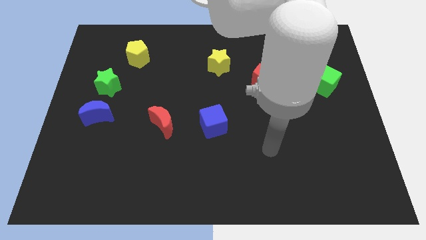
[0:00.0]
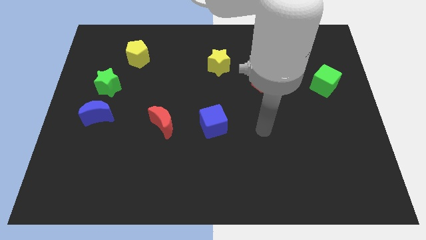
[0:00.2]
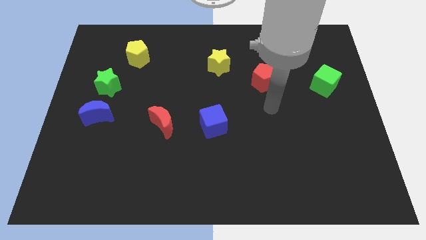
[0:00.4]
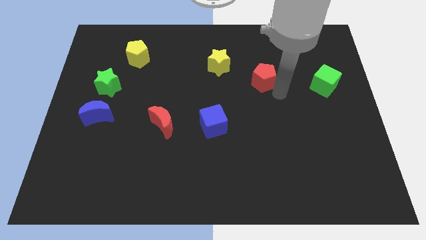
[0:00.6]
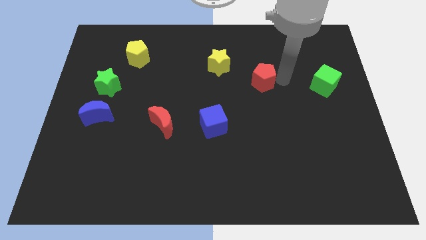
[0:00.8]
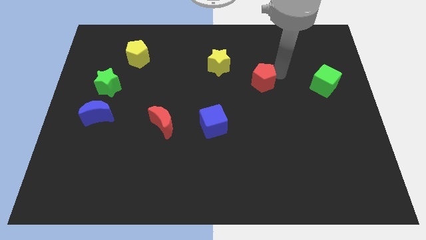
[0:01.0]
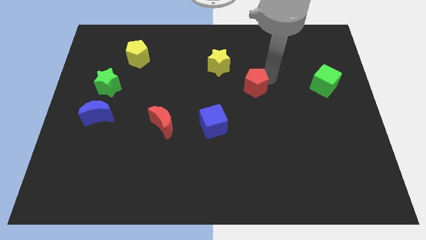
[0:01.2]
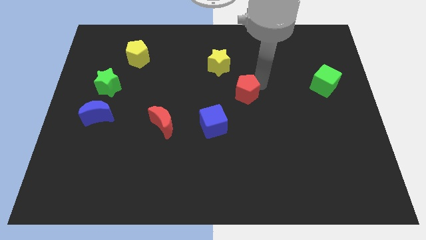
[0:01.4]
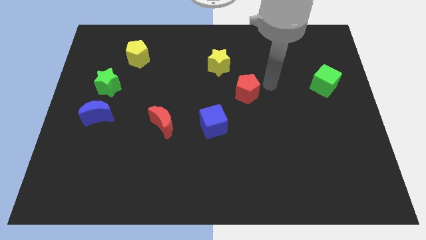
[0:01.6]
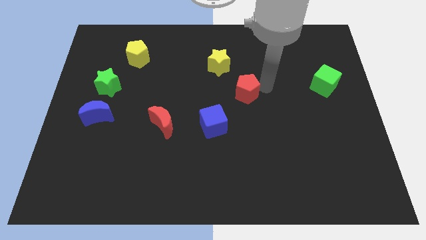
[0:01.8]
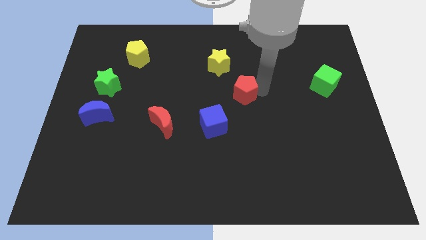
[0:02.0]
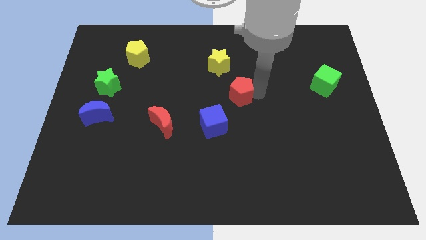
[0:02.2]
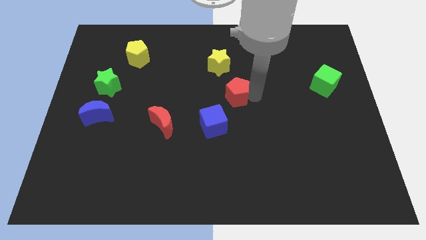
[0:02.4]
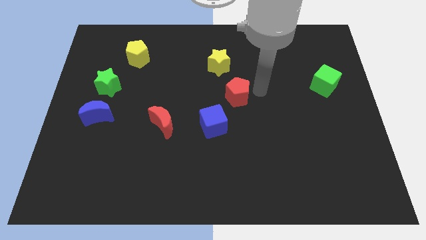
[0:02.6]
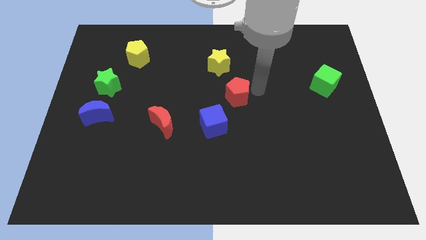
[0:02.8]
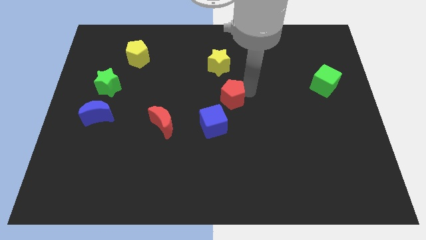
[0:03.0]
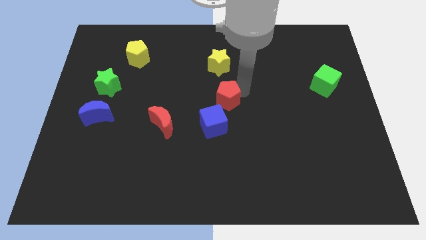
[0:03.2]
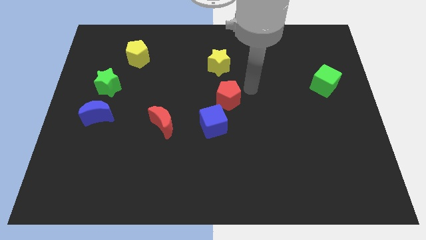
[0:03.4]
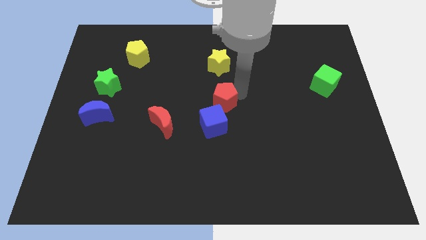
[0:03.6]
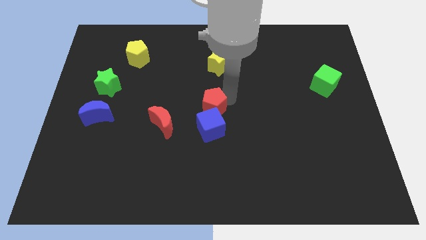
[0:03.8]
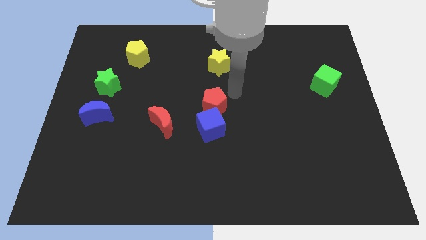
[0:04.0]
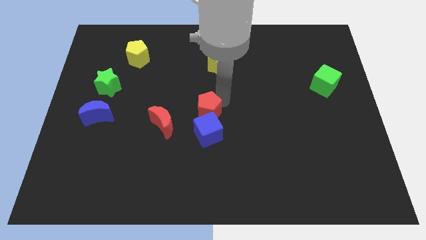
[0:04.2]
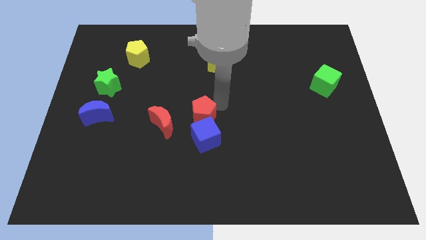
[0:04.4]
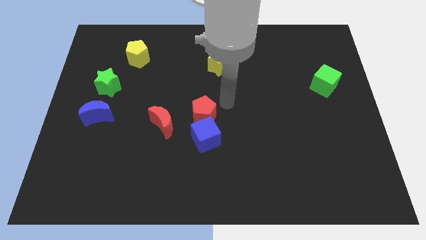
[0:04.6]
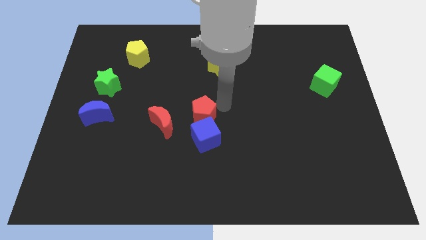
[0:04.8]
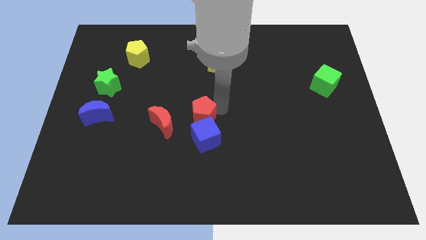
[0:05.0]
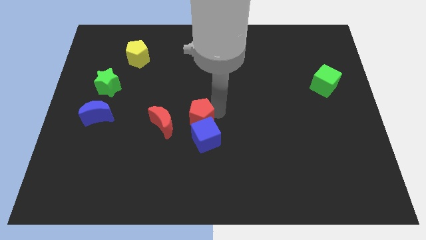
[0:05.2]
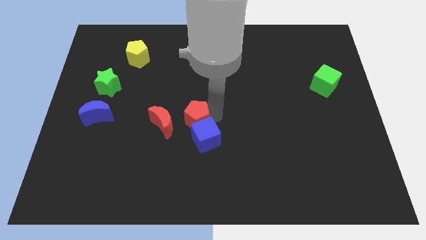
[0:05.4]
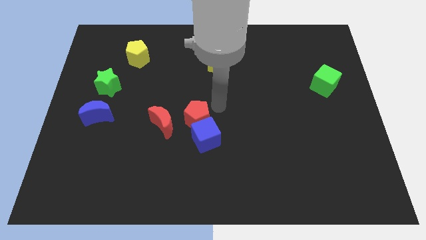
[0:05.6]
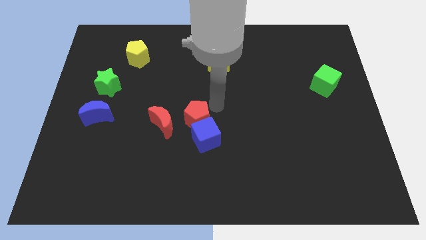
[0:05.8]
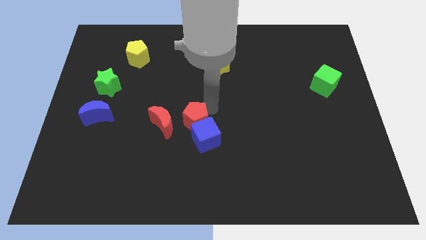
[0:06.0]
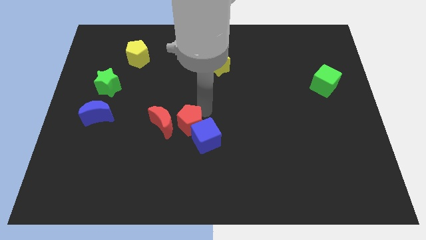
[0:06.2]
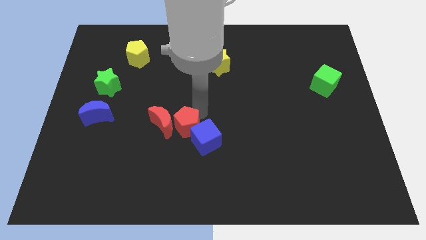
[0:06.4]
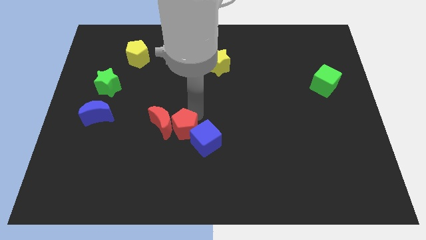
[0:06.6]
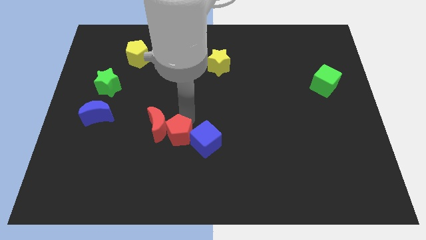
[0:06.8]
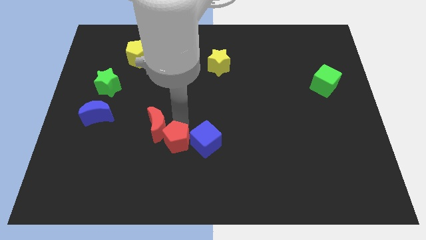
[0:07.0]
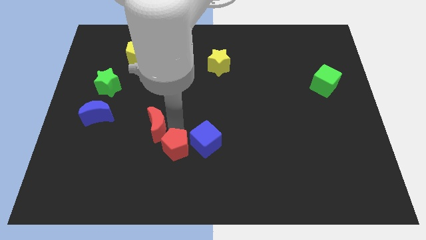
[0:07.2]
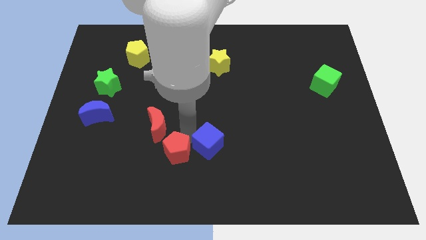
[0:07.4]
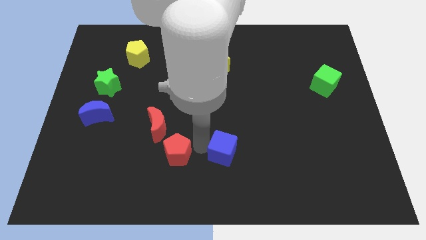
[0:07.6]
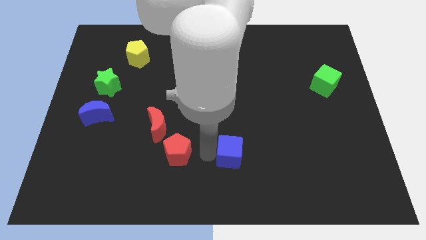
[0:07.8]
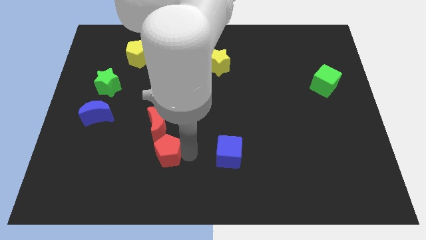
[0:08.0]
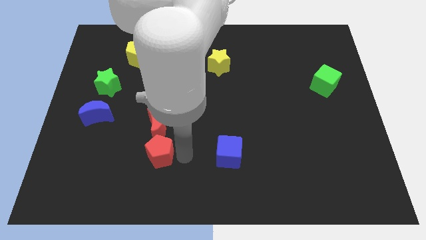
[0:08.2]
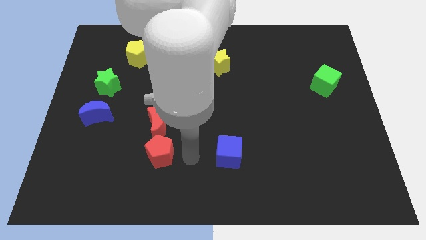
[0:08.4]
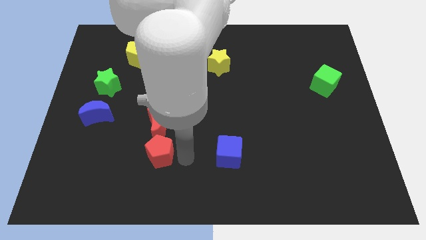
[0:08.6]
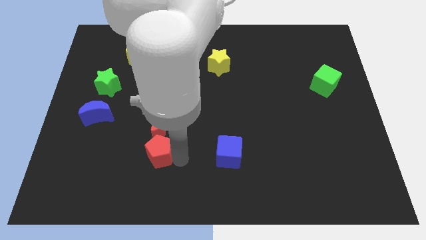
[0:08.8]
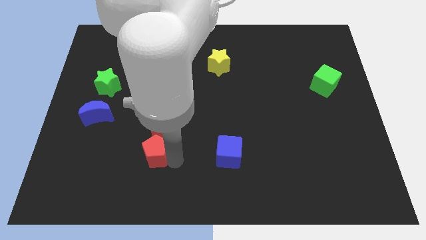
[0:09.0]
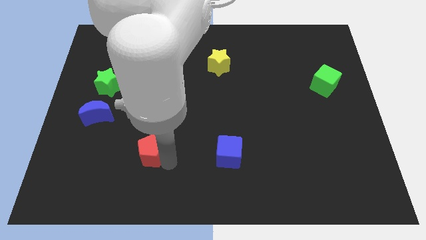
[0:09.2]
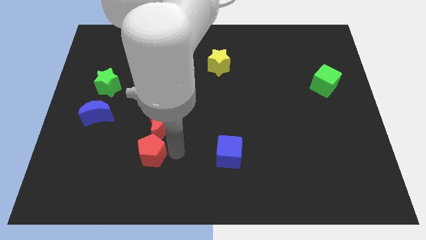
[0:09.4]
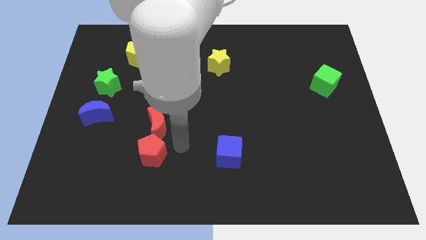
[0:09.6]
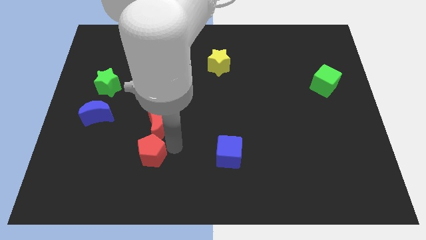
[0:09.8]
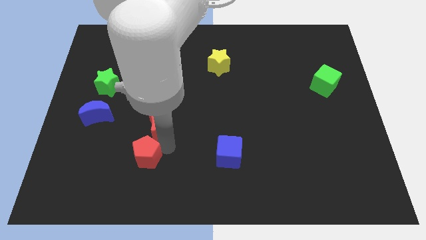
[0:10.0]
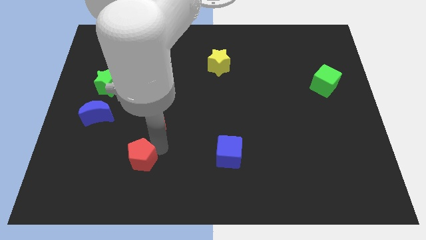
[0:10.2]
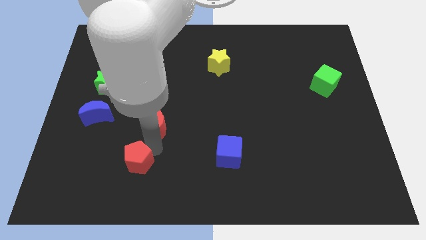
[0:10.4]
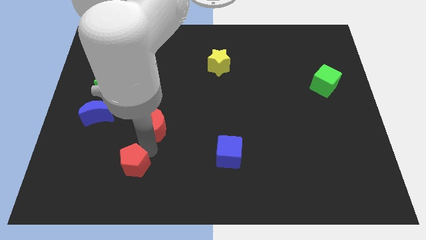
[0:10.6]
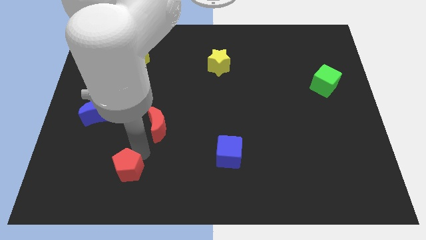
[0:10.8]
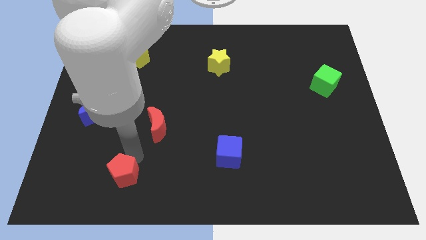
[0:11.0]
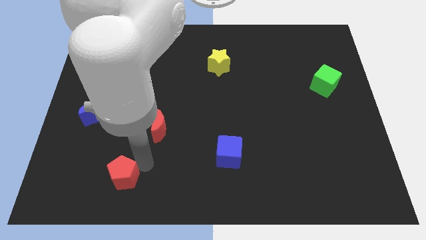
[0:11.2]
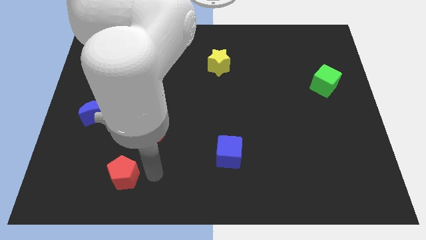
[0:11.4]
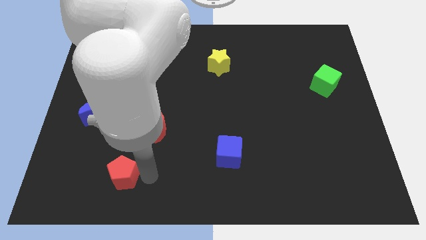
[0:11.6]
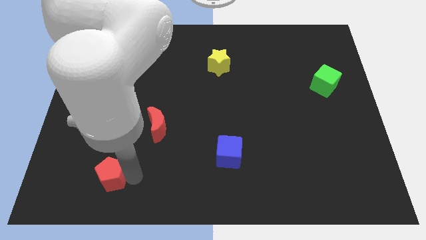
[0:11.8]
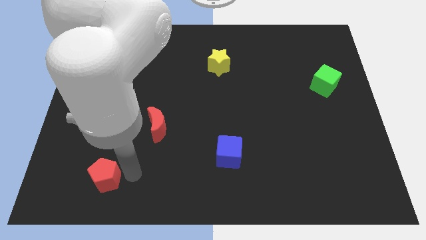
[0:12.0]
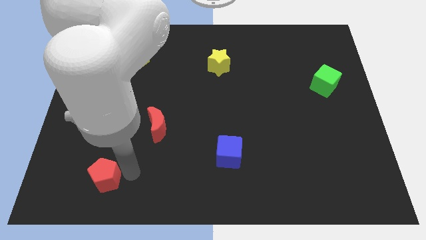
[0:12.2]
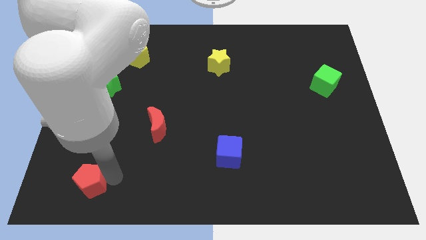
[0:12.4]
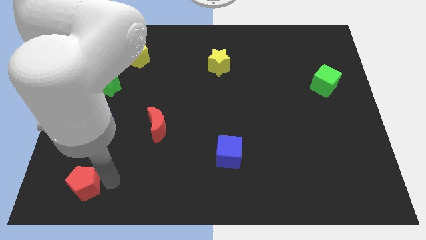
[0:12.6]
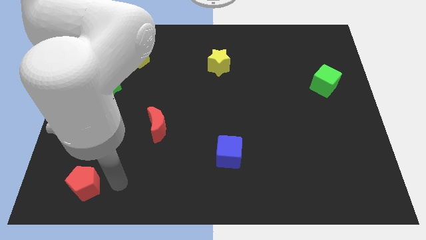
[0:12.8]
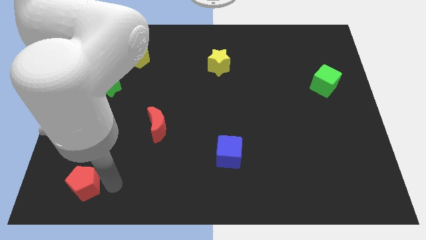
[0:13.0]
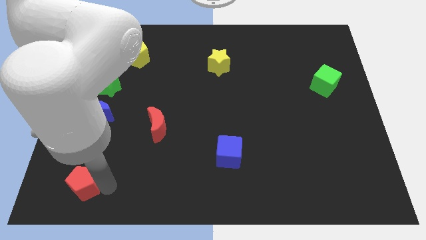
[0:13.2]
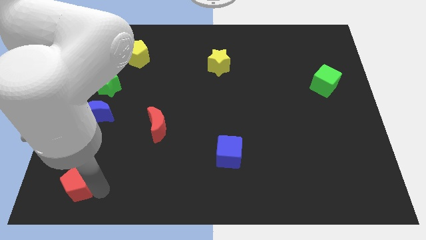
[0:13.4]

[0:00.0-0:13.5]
put the red pentagon to the bottom left
